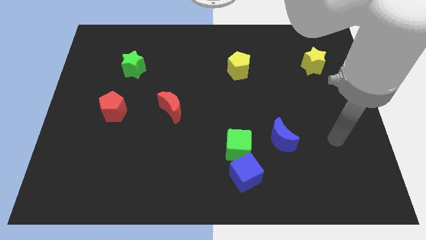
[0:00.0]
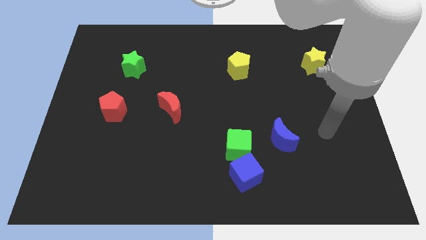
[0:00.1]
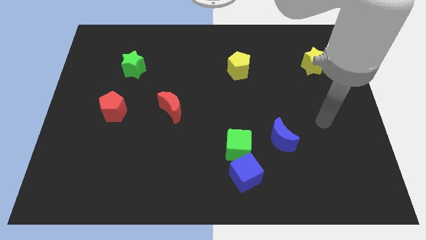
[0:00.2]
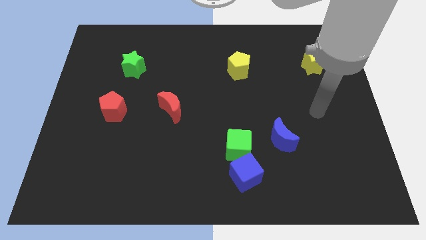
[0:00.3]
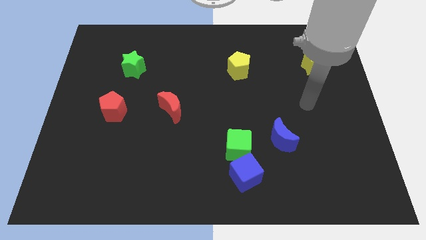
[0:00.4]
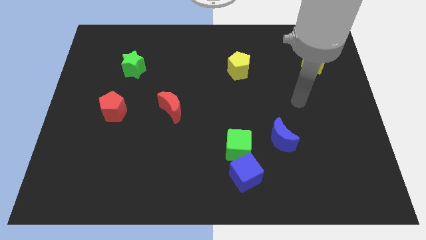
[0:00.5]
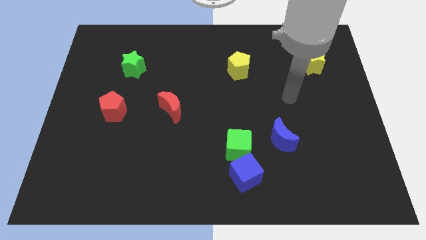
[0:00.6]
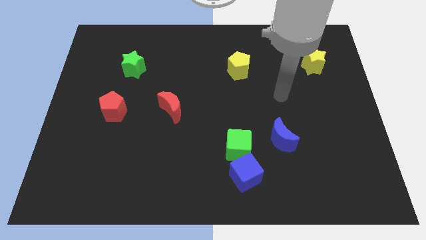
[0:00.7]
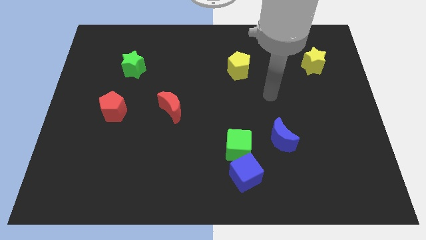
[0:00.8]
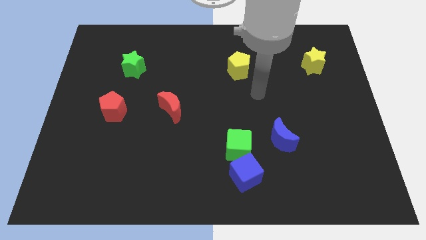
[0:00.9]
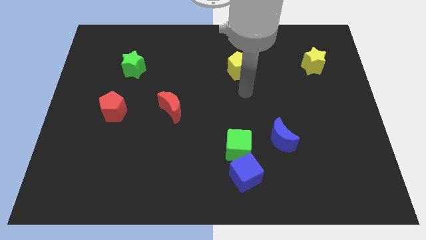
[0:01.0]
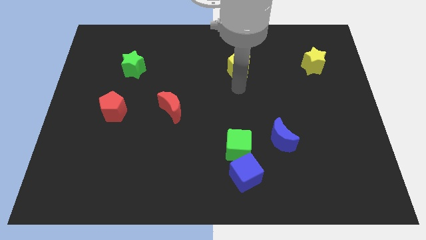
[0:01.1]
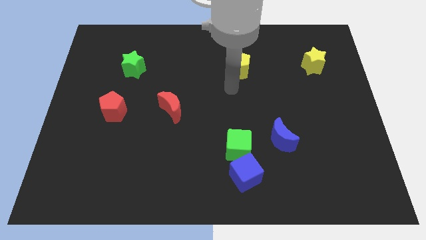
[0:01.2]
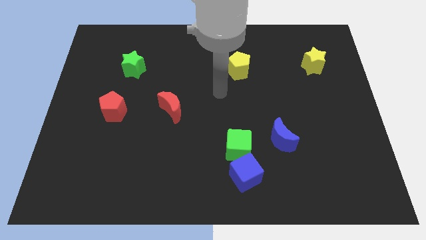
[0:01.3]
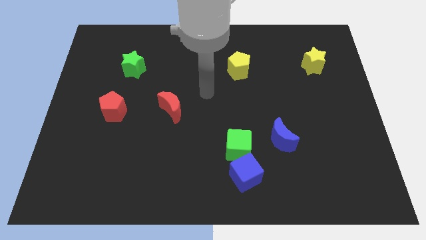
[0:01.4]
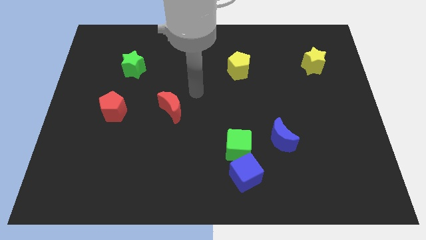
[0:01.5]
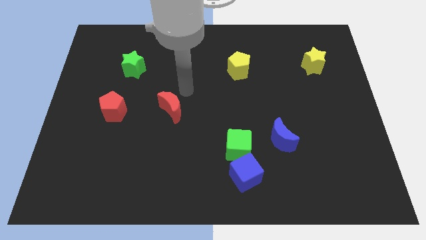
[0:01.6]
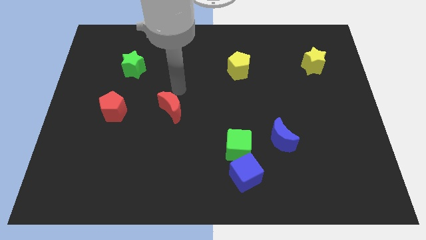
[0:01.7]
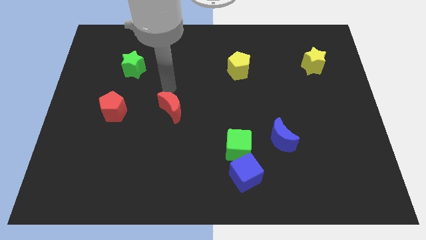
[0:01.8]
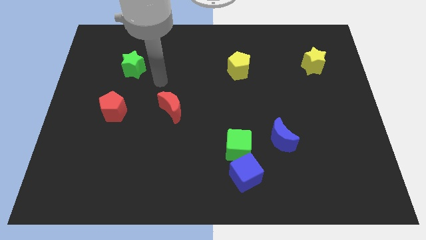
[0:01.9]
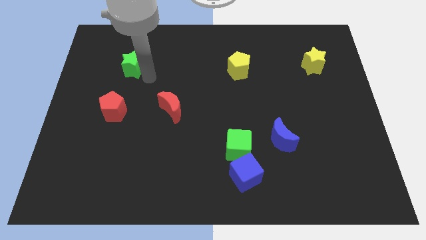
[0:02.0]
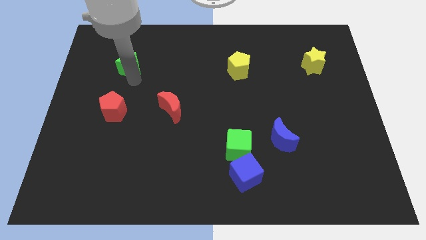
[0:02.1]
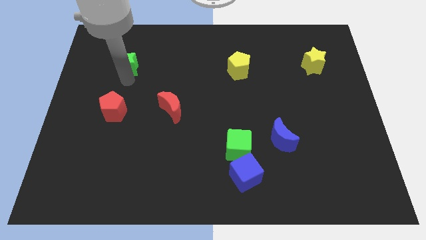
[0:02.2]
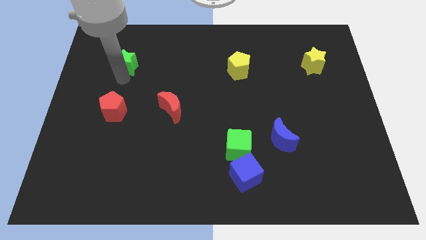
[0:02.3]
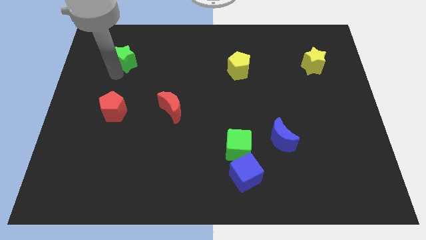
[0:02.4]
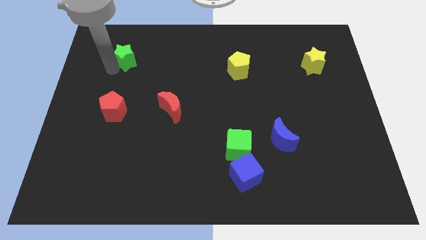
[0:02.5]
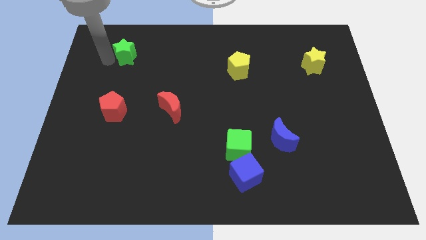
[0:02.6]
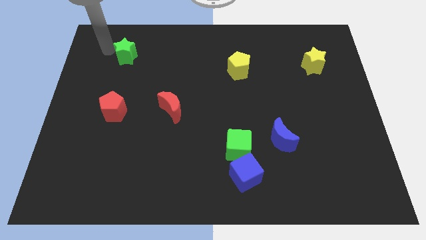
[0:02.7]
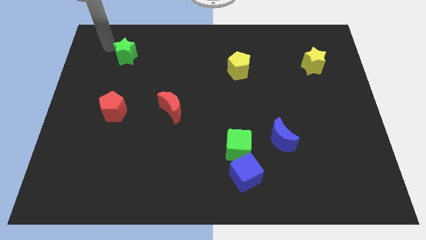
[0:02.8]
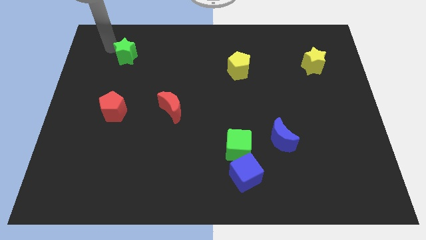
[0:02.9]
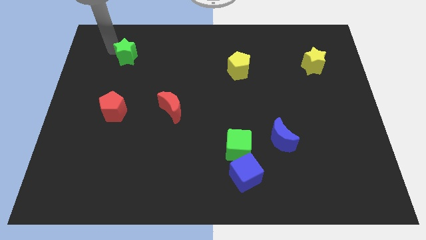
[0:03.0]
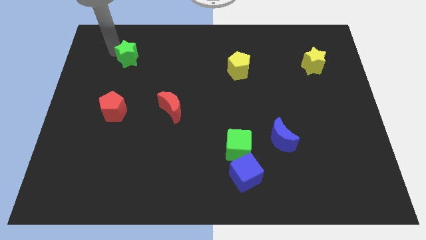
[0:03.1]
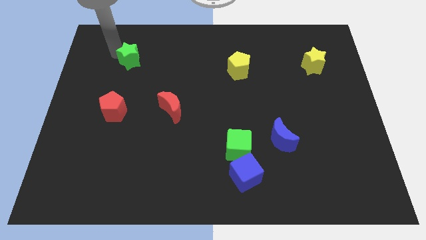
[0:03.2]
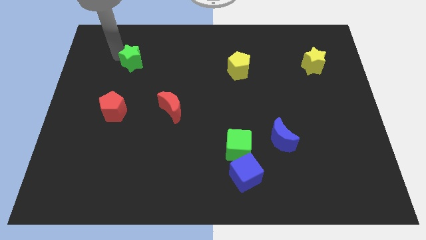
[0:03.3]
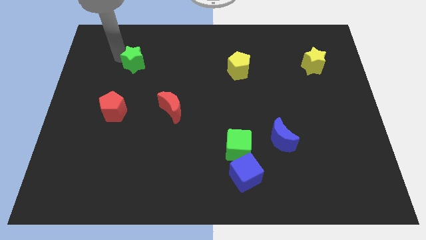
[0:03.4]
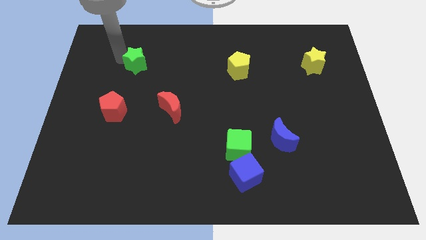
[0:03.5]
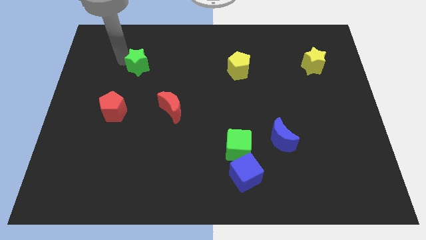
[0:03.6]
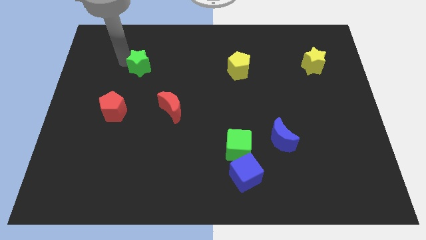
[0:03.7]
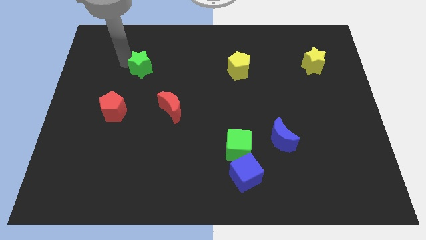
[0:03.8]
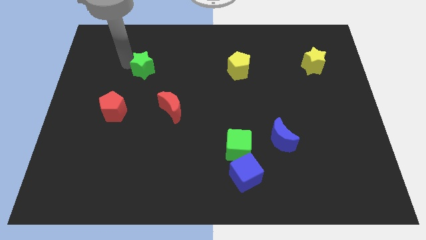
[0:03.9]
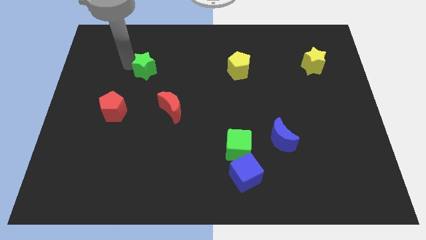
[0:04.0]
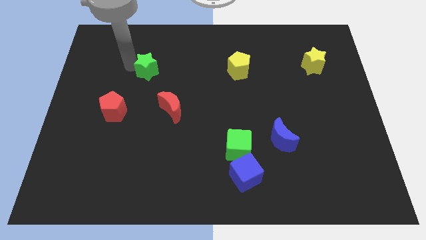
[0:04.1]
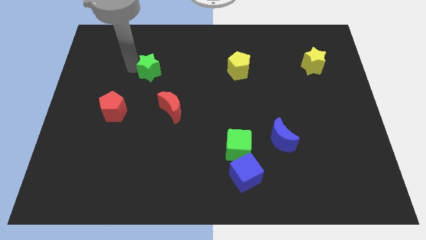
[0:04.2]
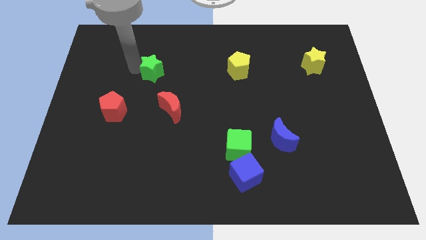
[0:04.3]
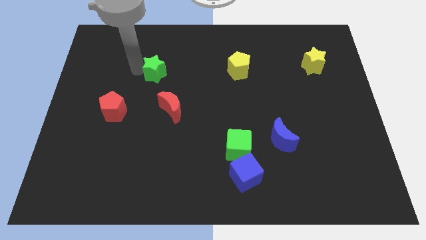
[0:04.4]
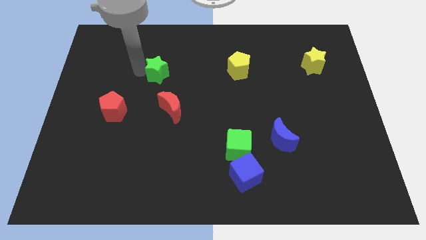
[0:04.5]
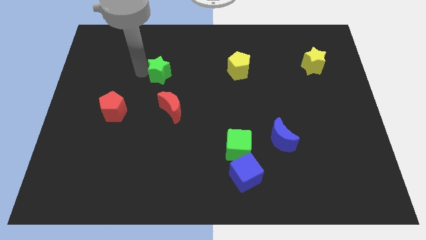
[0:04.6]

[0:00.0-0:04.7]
push the green star to the right a little

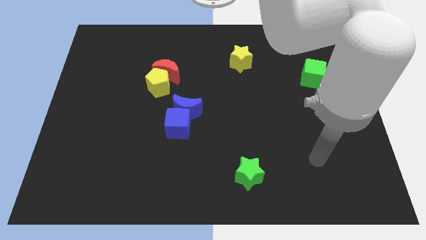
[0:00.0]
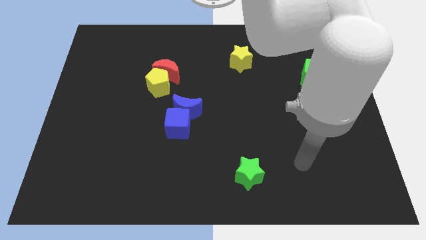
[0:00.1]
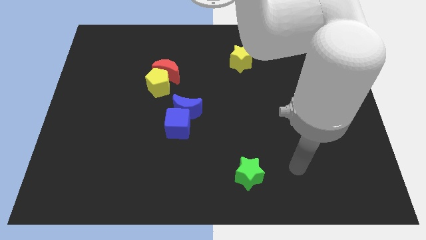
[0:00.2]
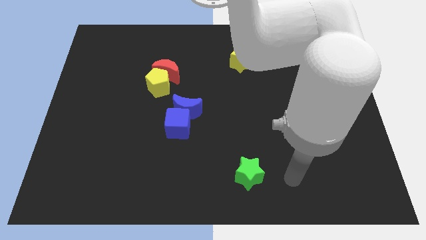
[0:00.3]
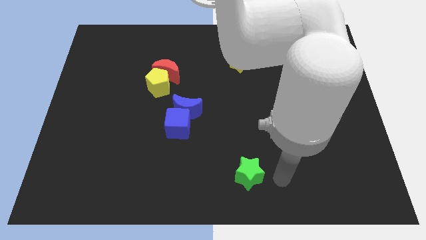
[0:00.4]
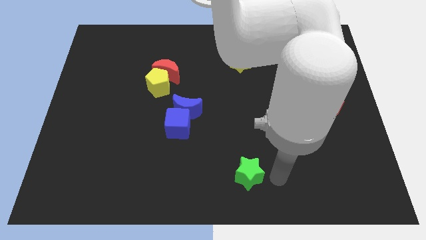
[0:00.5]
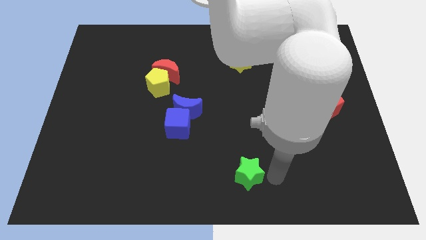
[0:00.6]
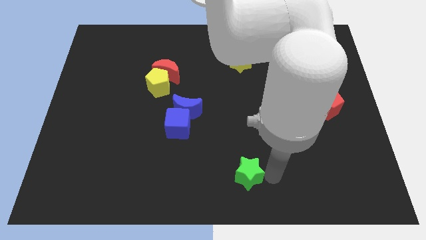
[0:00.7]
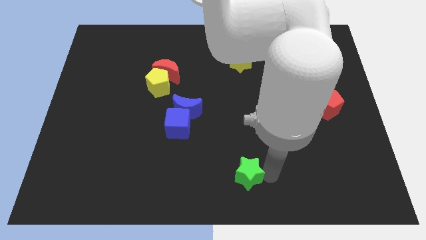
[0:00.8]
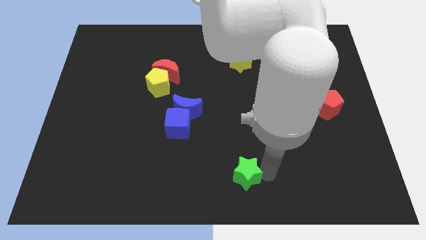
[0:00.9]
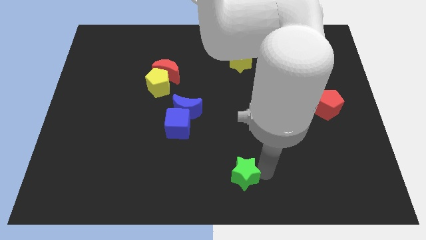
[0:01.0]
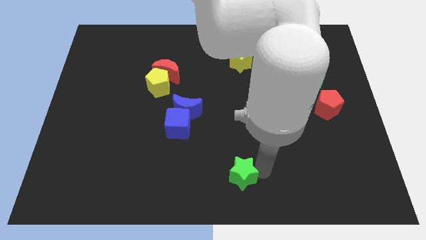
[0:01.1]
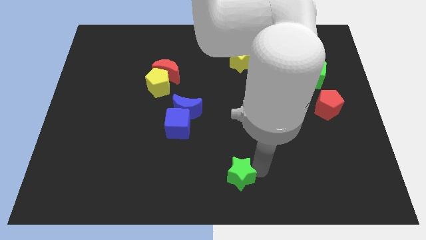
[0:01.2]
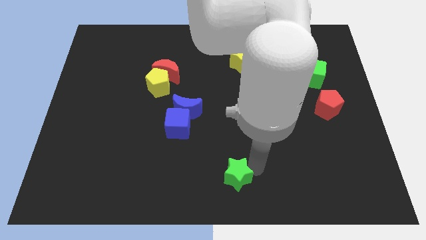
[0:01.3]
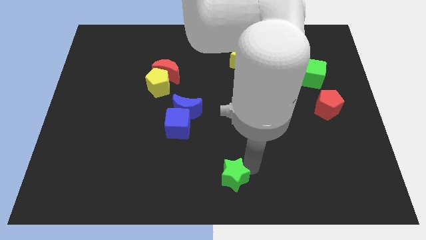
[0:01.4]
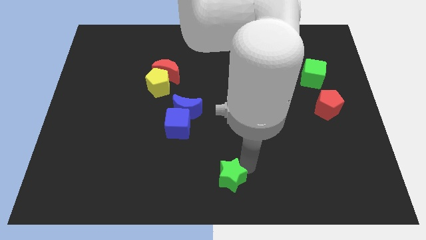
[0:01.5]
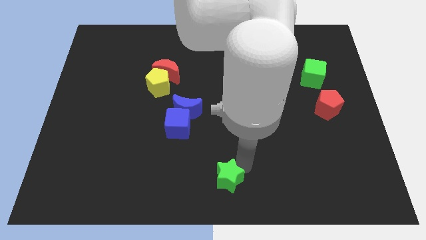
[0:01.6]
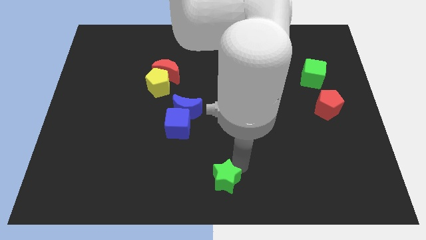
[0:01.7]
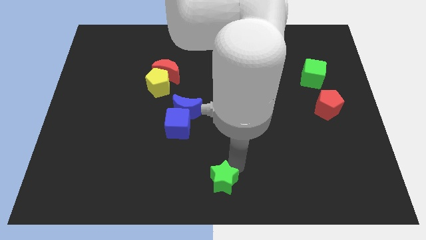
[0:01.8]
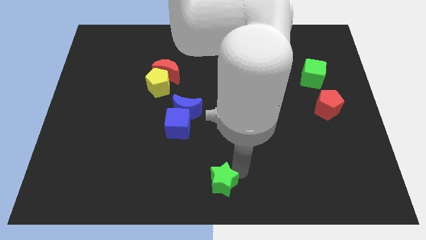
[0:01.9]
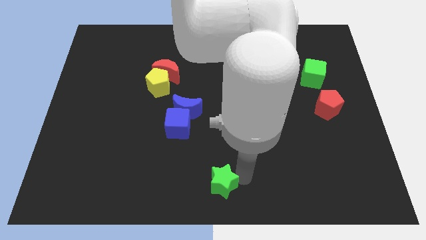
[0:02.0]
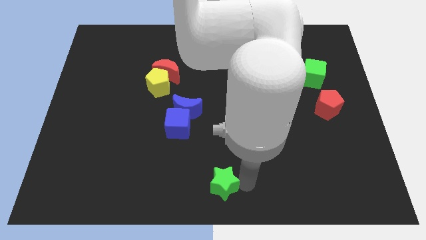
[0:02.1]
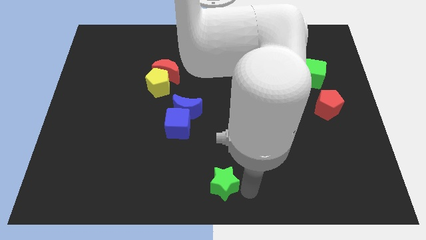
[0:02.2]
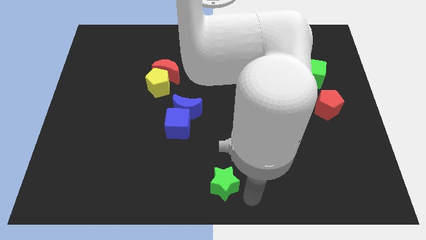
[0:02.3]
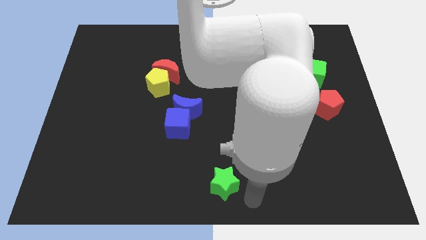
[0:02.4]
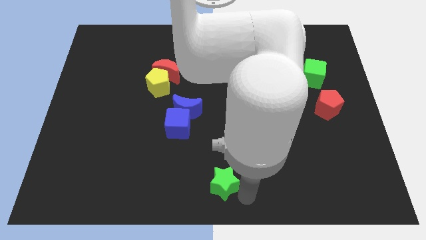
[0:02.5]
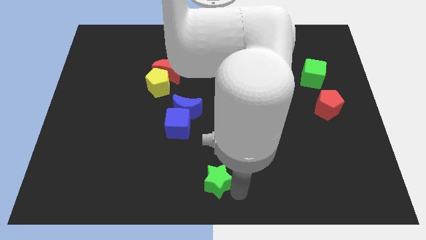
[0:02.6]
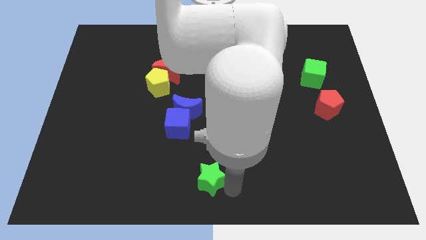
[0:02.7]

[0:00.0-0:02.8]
slightly slide the green star to the left
